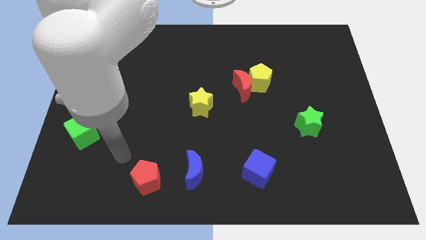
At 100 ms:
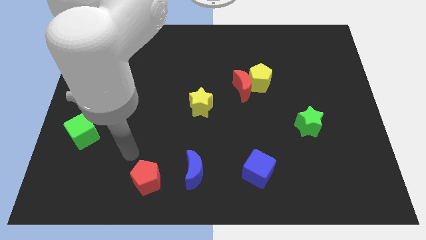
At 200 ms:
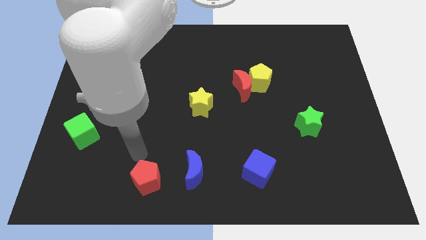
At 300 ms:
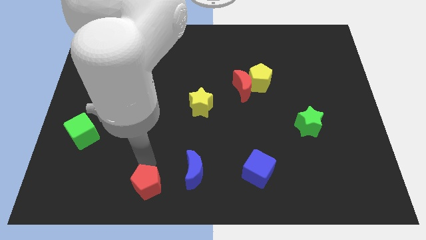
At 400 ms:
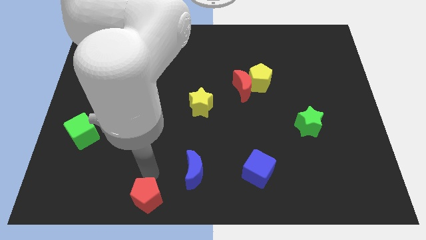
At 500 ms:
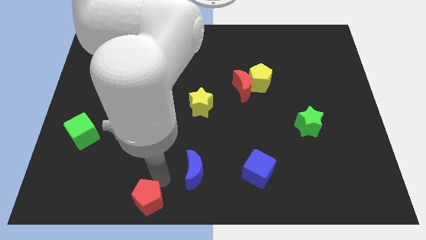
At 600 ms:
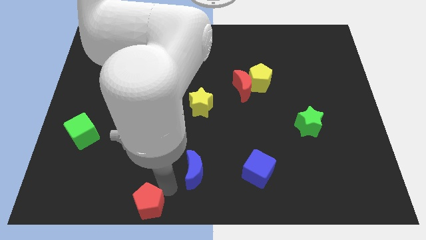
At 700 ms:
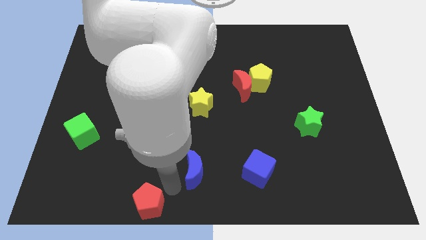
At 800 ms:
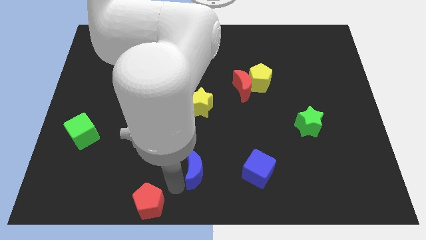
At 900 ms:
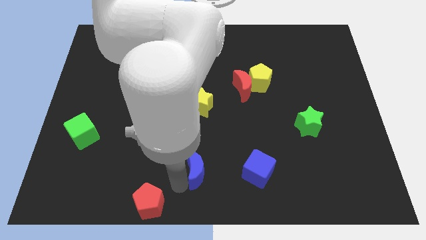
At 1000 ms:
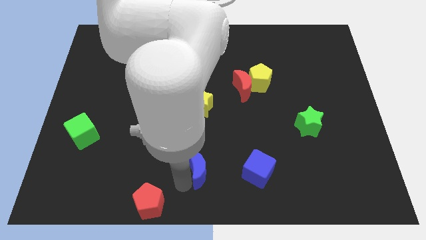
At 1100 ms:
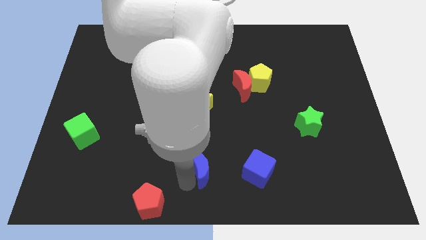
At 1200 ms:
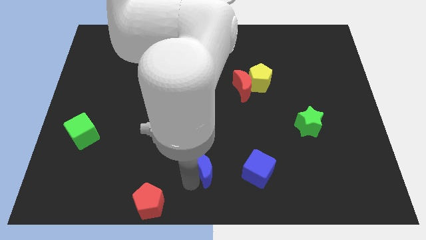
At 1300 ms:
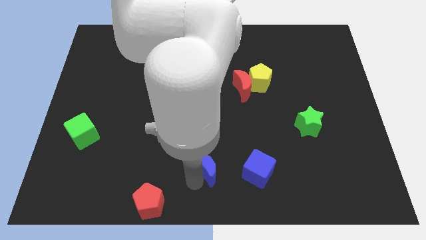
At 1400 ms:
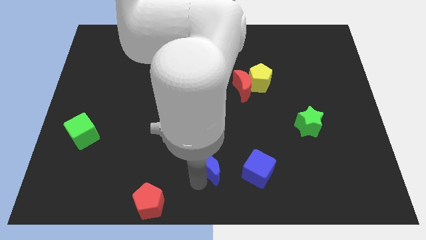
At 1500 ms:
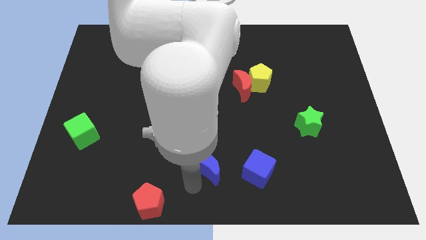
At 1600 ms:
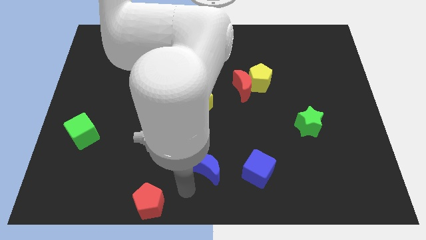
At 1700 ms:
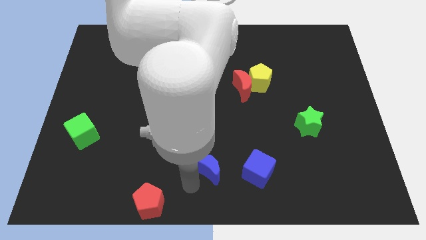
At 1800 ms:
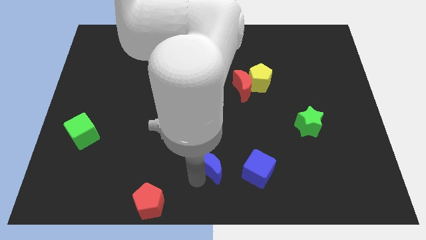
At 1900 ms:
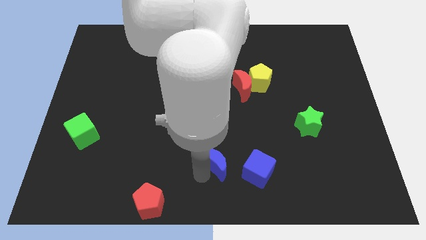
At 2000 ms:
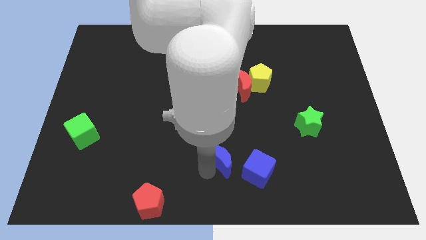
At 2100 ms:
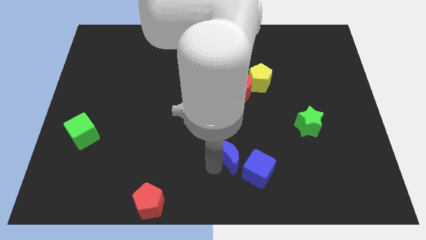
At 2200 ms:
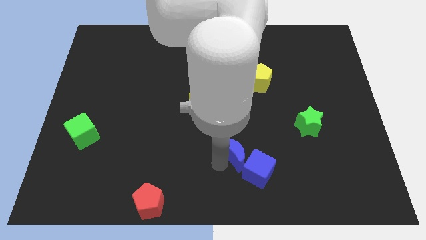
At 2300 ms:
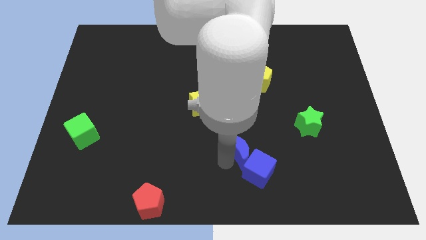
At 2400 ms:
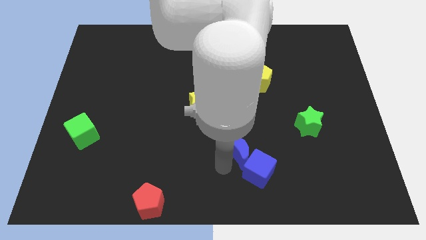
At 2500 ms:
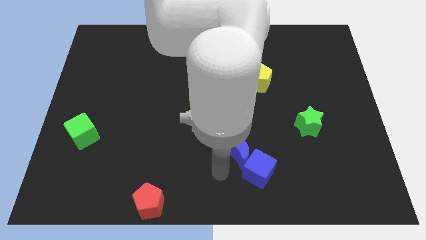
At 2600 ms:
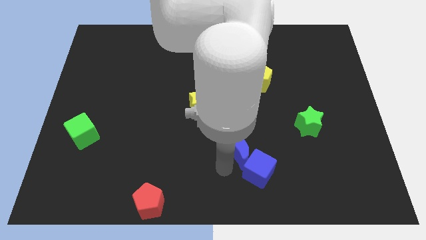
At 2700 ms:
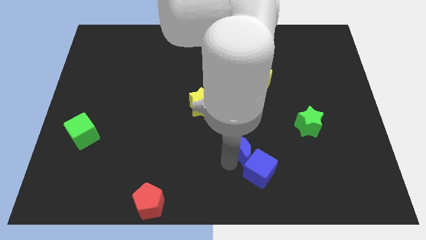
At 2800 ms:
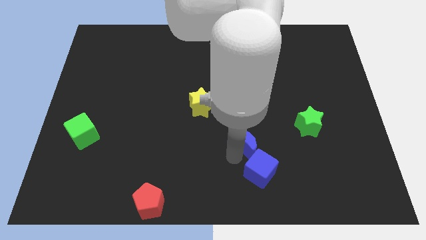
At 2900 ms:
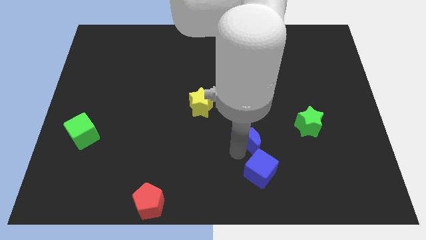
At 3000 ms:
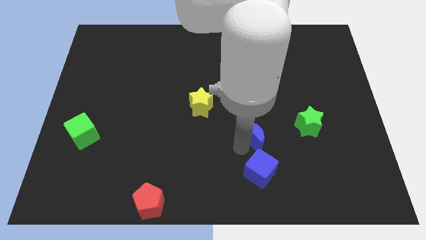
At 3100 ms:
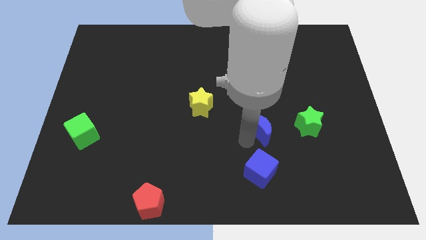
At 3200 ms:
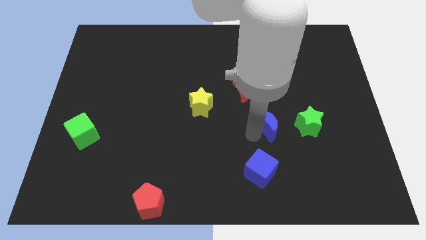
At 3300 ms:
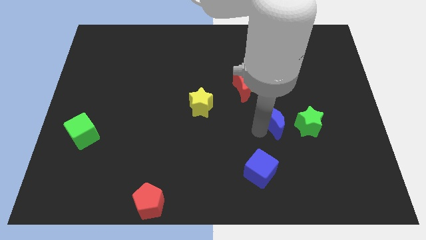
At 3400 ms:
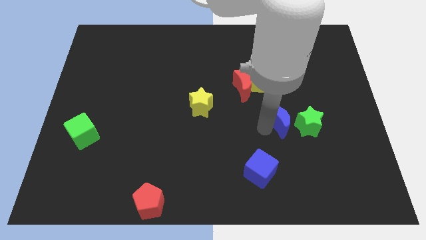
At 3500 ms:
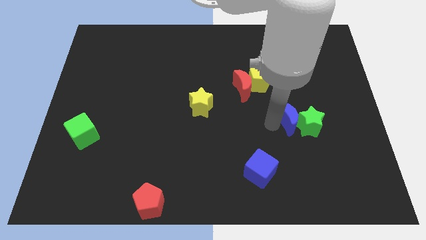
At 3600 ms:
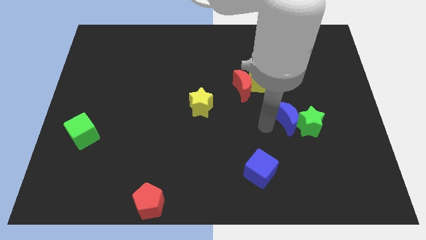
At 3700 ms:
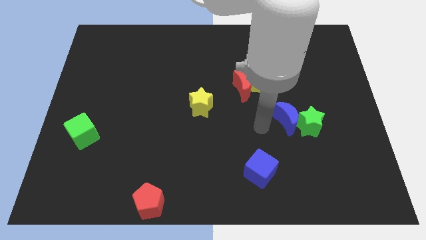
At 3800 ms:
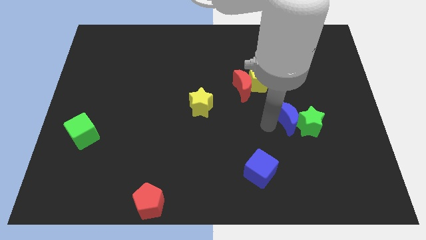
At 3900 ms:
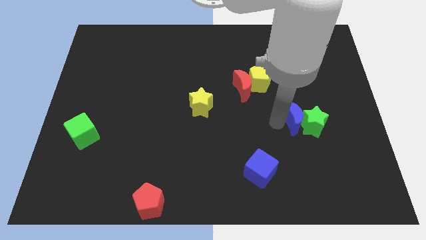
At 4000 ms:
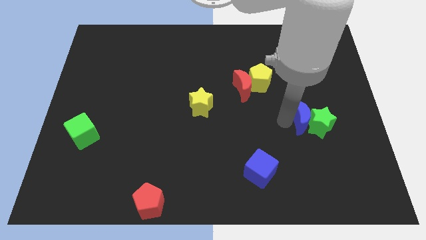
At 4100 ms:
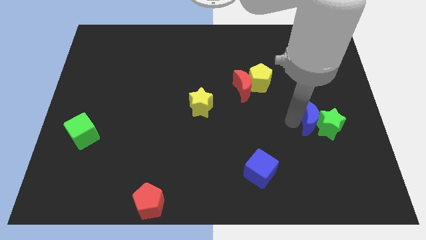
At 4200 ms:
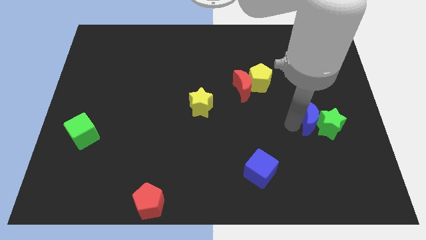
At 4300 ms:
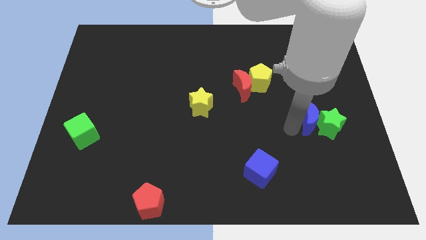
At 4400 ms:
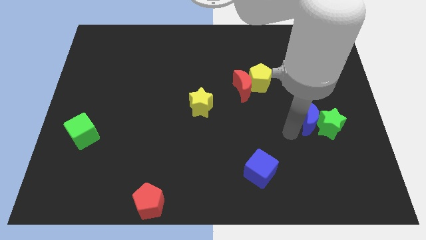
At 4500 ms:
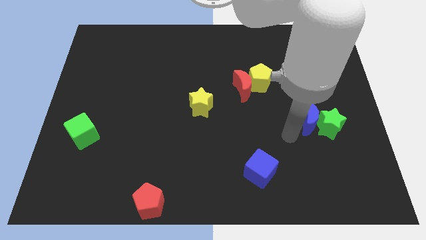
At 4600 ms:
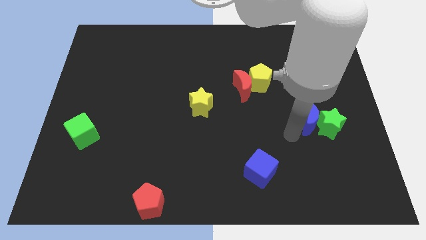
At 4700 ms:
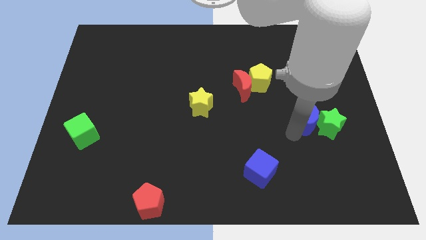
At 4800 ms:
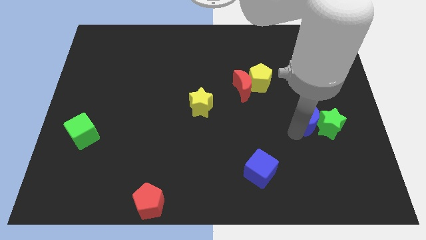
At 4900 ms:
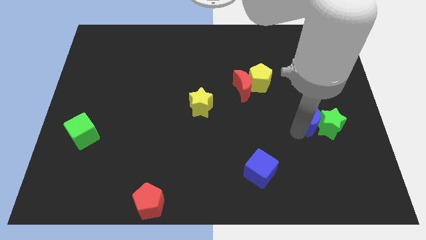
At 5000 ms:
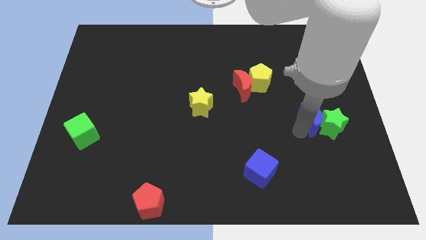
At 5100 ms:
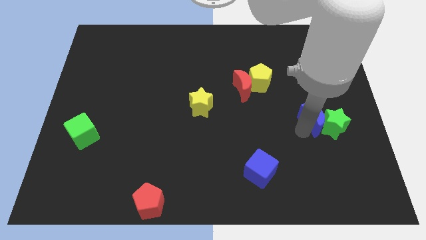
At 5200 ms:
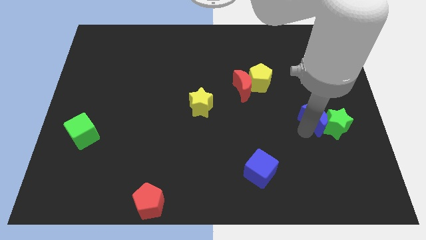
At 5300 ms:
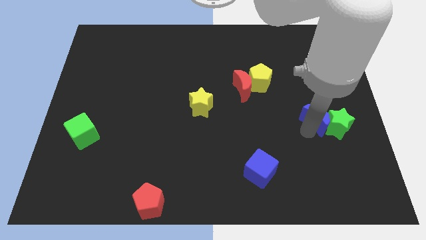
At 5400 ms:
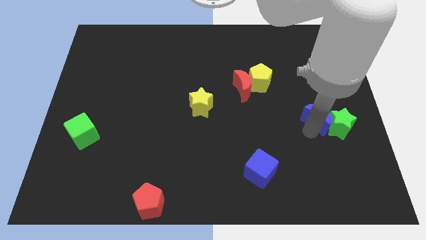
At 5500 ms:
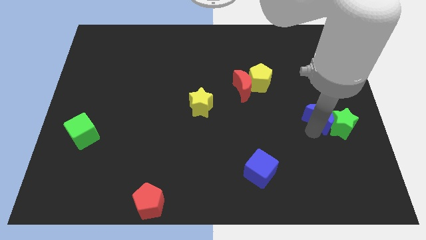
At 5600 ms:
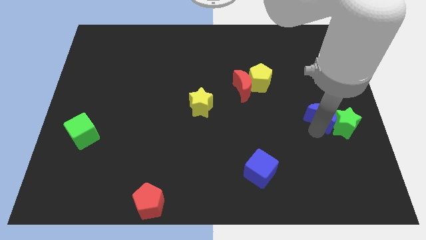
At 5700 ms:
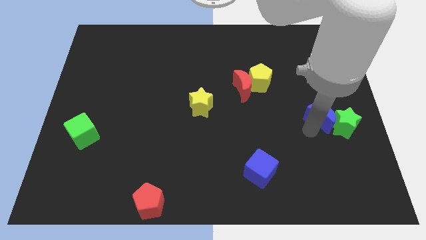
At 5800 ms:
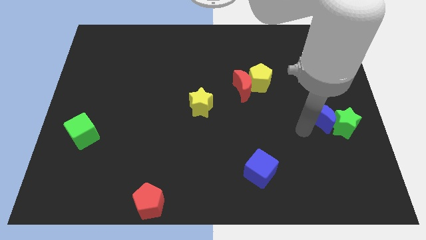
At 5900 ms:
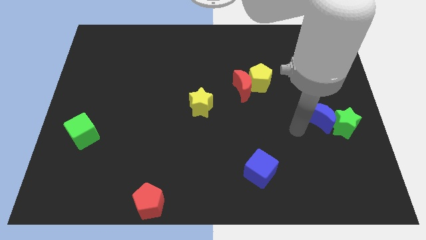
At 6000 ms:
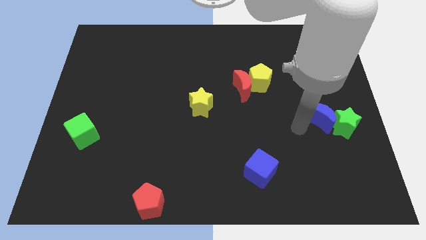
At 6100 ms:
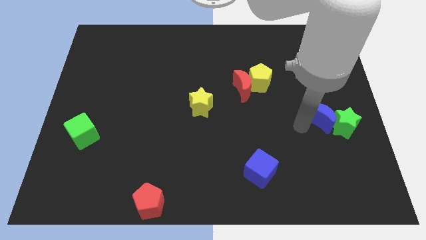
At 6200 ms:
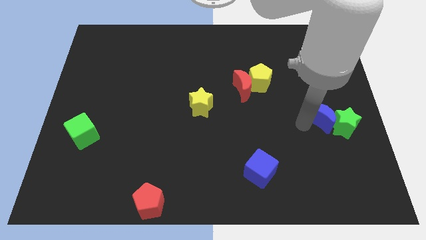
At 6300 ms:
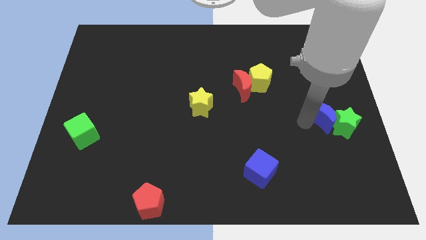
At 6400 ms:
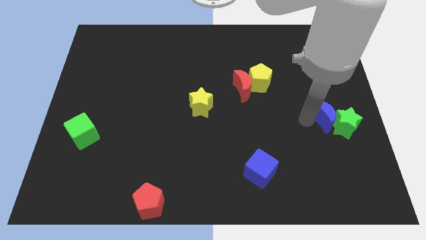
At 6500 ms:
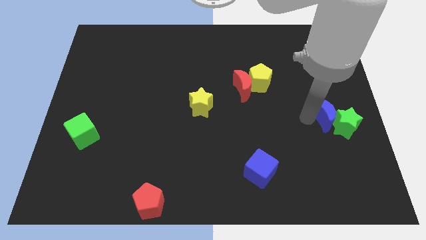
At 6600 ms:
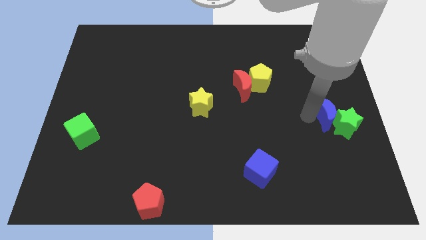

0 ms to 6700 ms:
push the blue moon to the right side of the board
